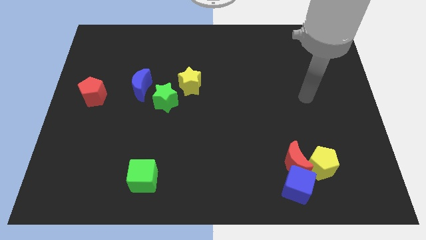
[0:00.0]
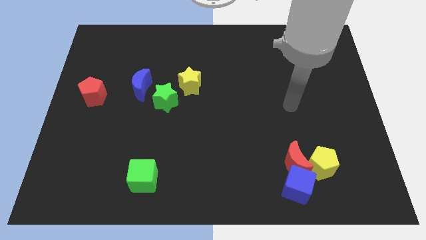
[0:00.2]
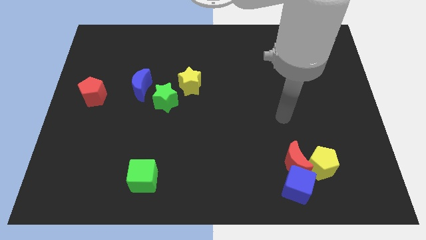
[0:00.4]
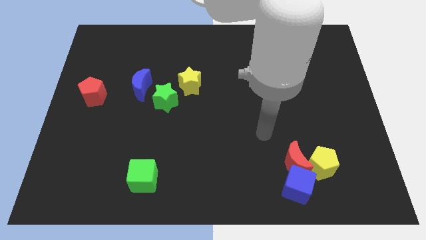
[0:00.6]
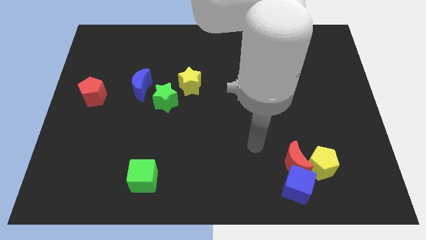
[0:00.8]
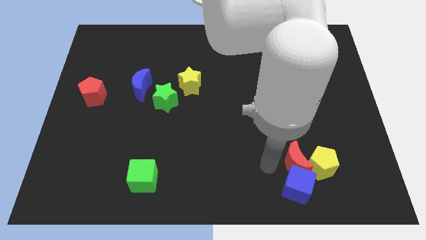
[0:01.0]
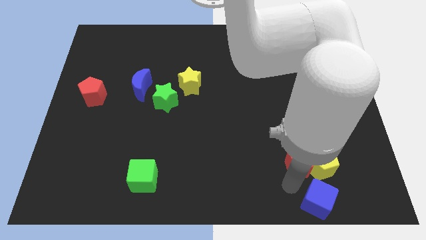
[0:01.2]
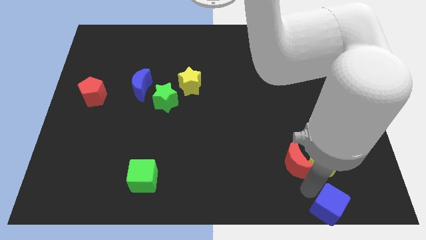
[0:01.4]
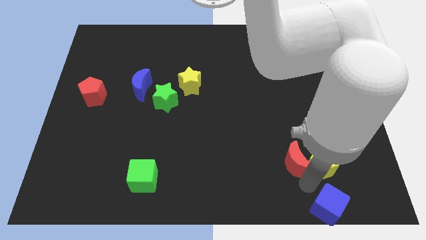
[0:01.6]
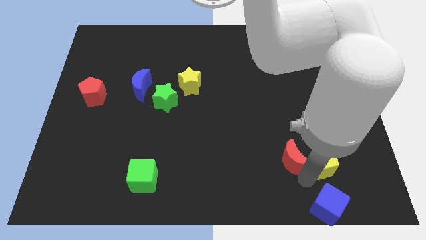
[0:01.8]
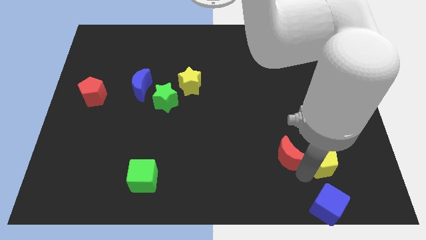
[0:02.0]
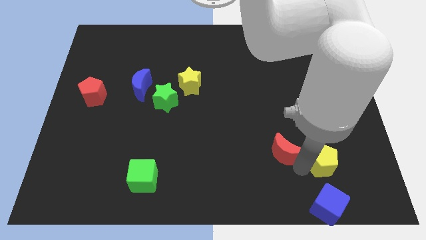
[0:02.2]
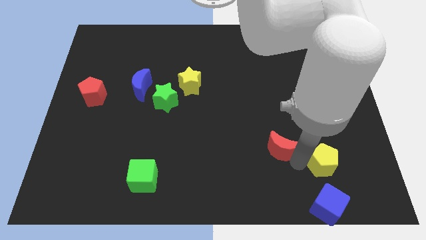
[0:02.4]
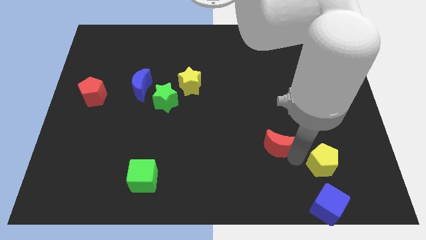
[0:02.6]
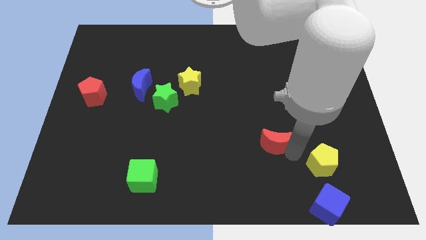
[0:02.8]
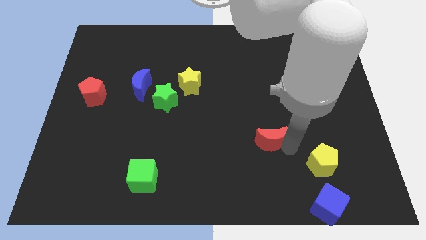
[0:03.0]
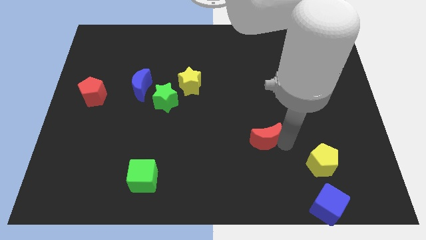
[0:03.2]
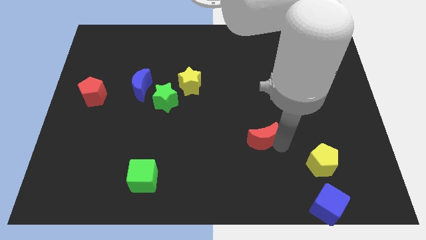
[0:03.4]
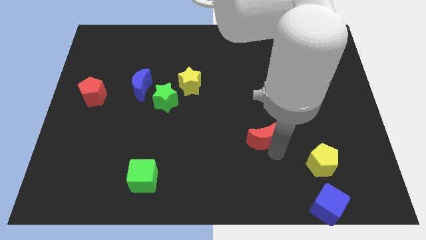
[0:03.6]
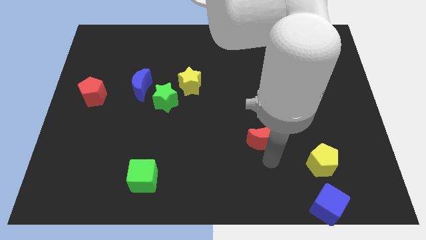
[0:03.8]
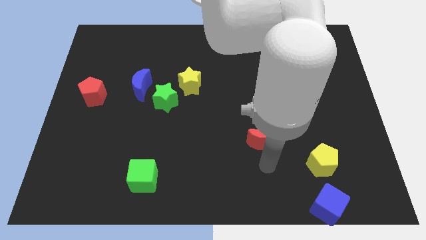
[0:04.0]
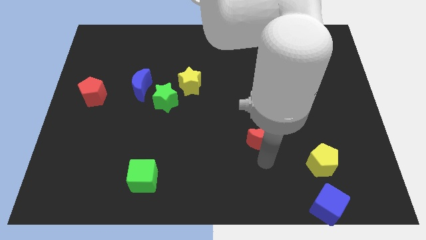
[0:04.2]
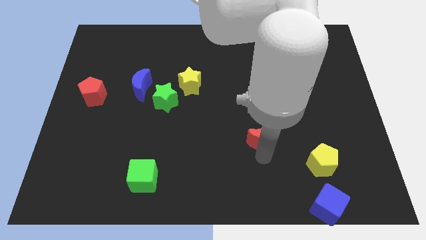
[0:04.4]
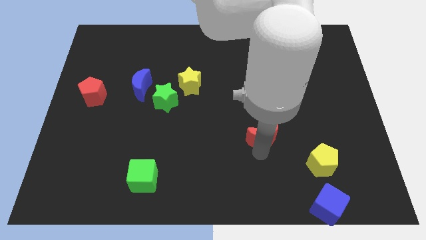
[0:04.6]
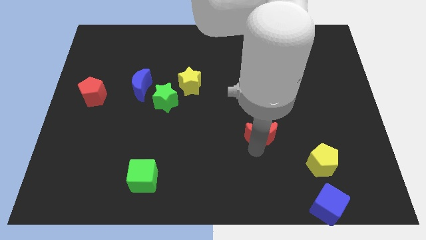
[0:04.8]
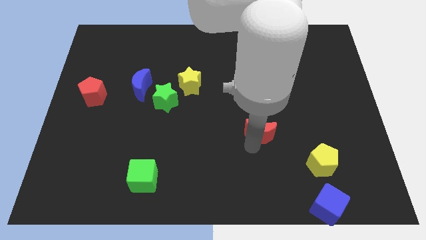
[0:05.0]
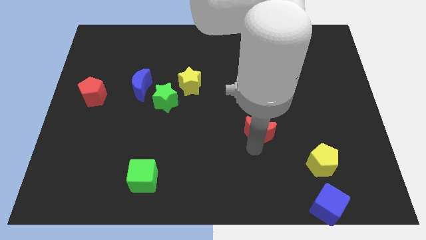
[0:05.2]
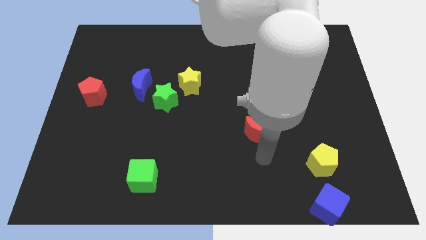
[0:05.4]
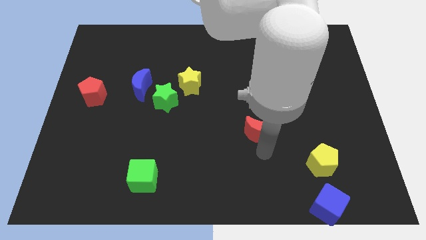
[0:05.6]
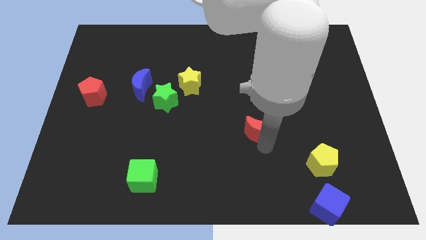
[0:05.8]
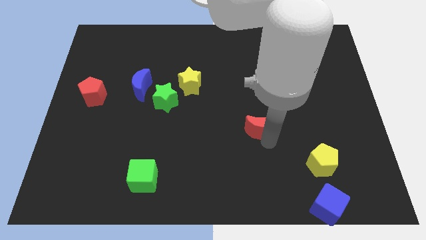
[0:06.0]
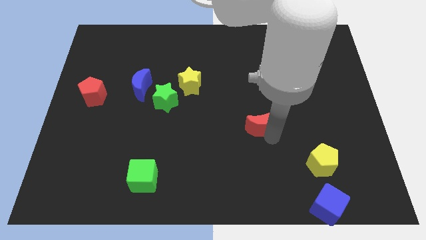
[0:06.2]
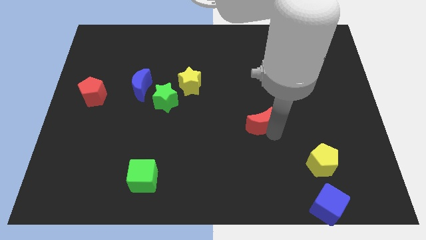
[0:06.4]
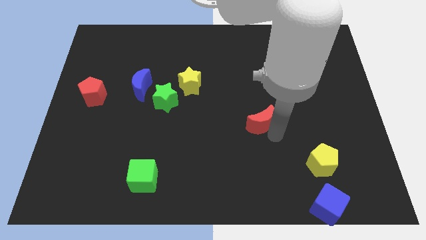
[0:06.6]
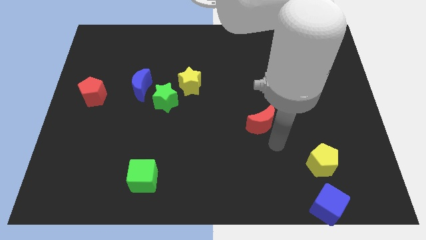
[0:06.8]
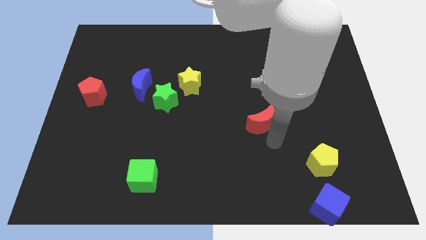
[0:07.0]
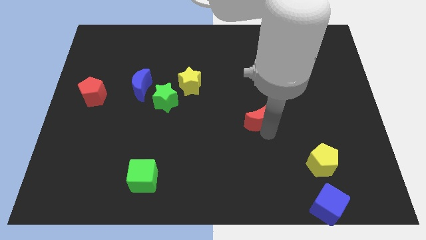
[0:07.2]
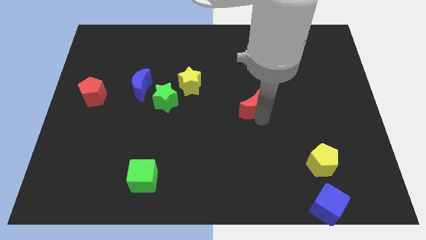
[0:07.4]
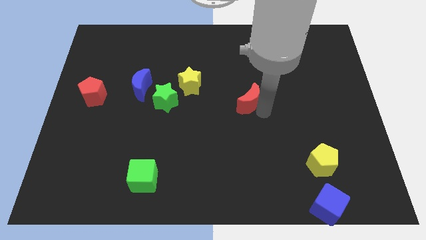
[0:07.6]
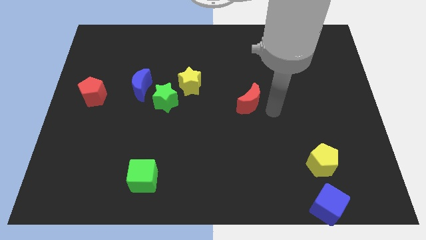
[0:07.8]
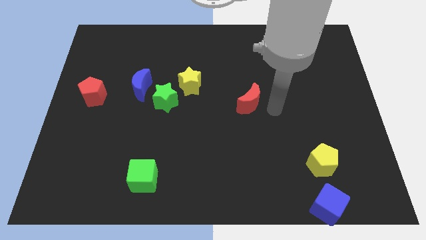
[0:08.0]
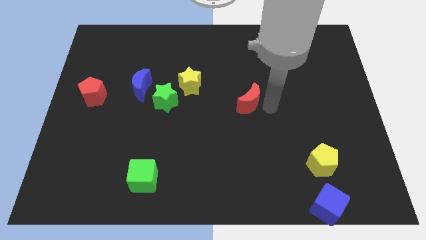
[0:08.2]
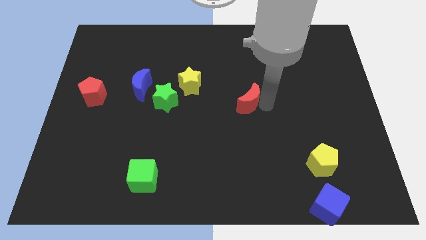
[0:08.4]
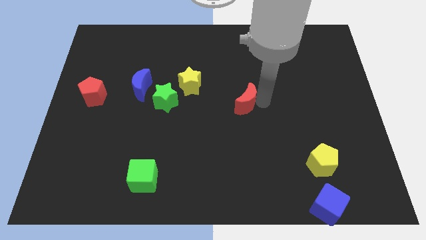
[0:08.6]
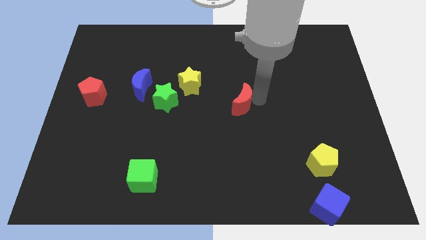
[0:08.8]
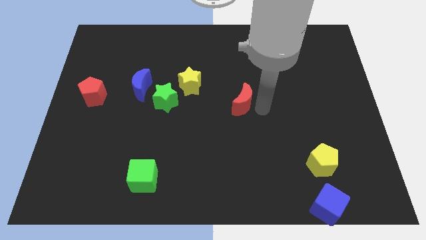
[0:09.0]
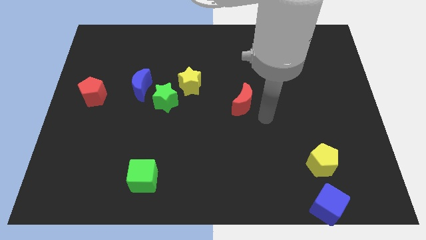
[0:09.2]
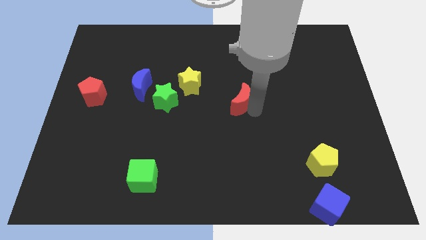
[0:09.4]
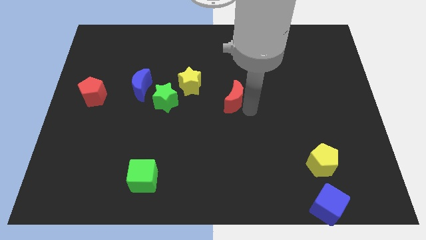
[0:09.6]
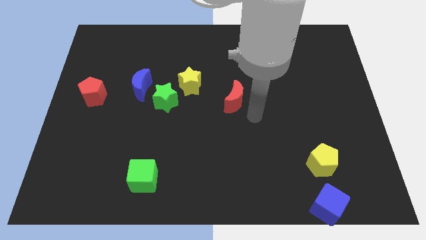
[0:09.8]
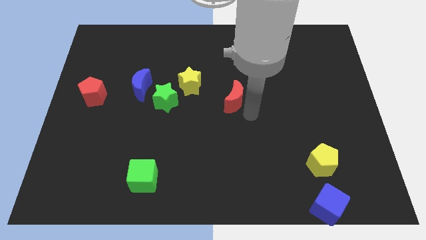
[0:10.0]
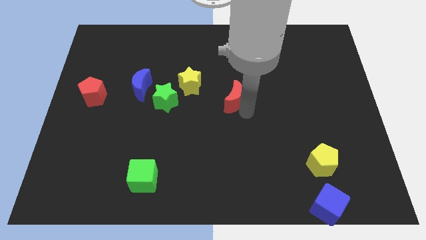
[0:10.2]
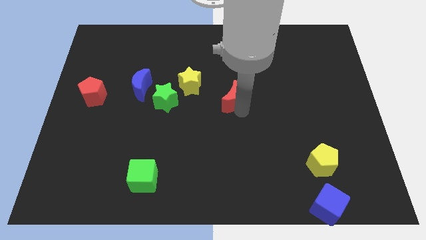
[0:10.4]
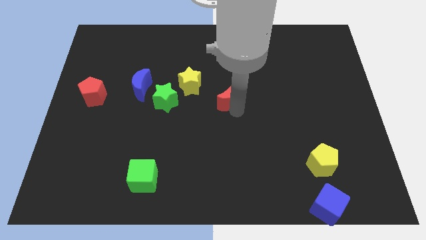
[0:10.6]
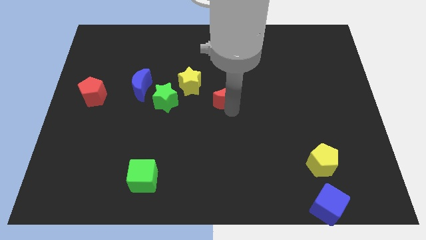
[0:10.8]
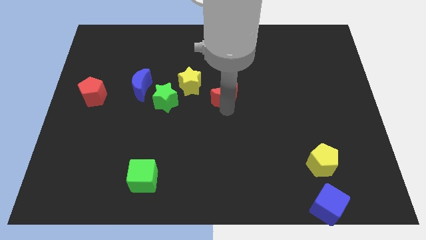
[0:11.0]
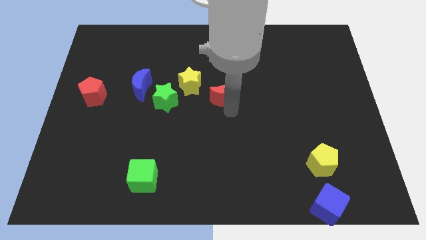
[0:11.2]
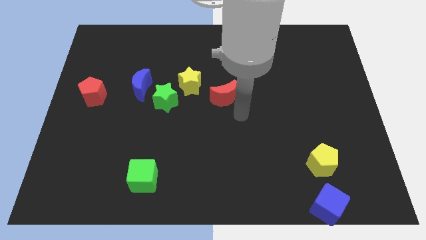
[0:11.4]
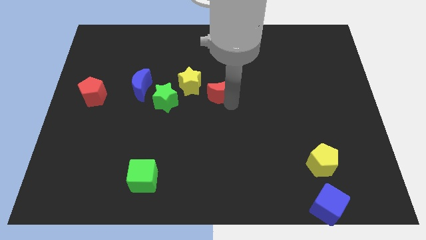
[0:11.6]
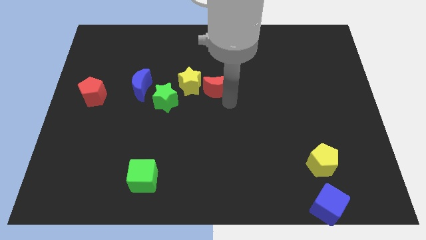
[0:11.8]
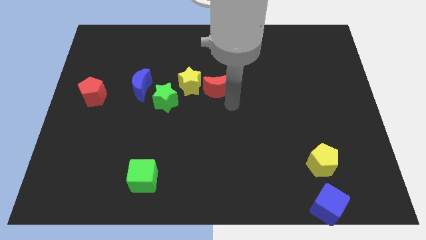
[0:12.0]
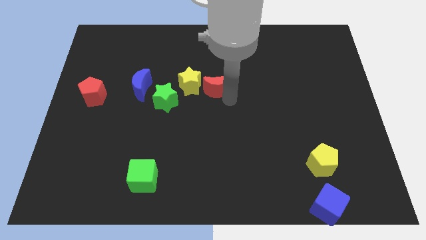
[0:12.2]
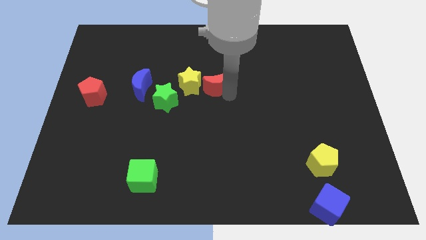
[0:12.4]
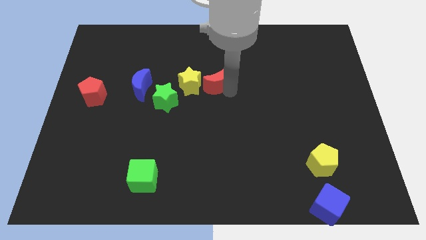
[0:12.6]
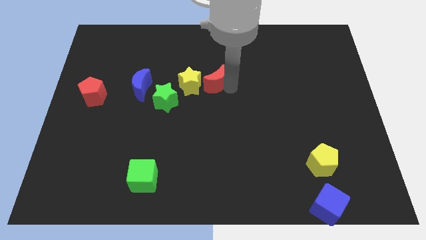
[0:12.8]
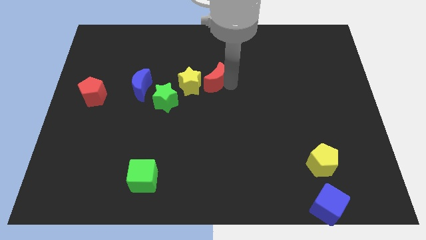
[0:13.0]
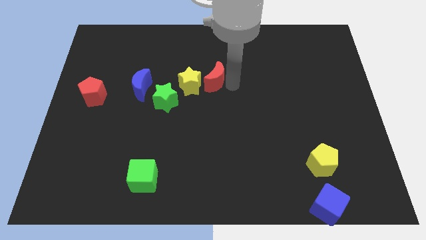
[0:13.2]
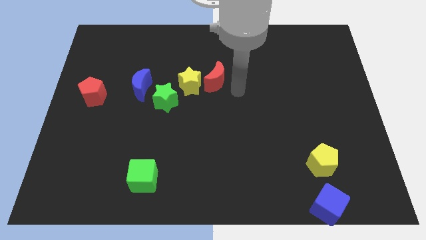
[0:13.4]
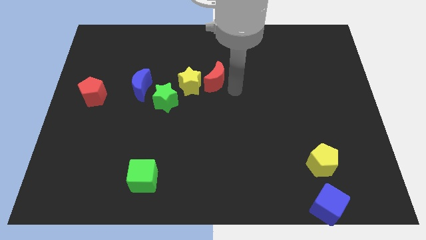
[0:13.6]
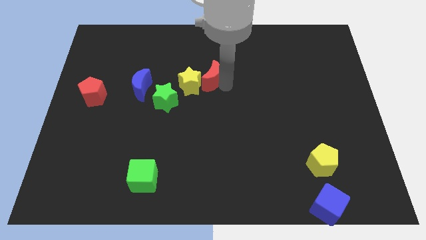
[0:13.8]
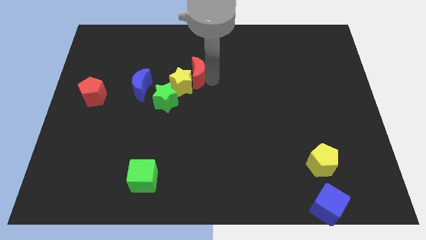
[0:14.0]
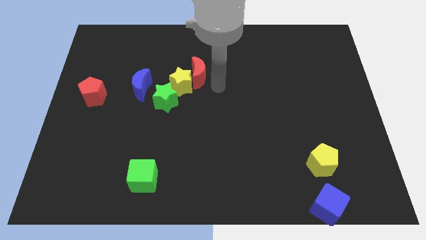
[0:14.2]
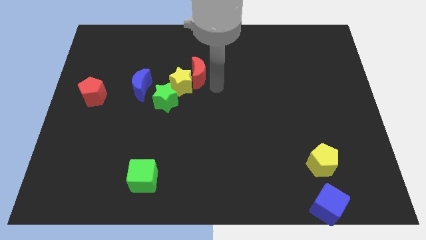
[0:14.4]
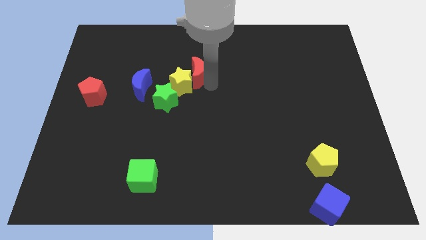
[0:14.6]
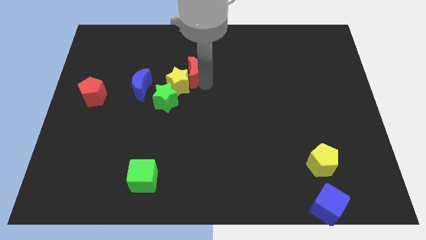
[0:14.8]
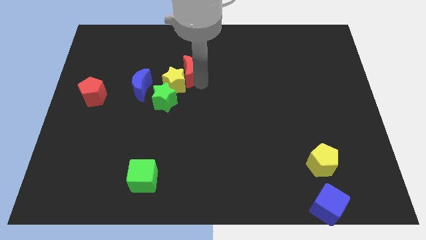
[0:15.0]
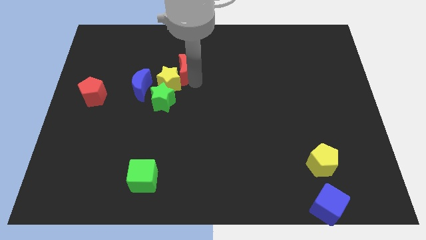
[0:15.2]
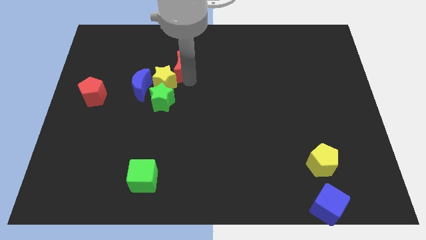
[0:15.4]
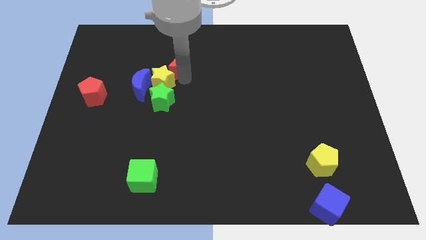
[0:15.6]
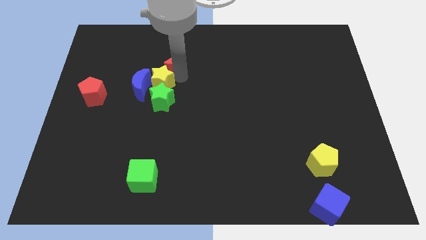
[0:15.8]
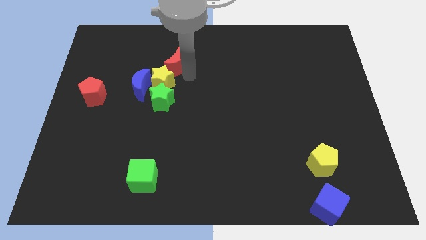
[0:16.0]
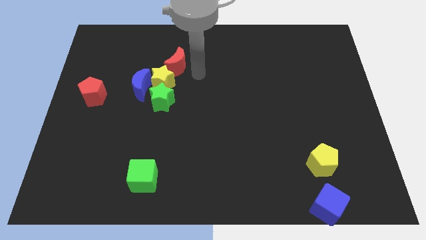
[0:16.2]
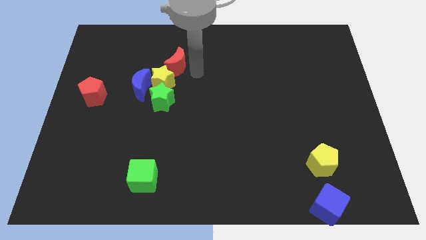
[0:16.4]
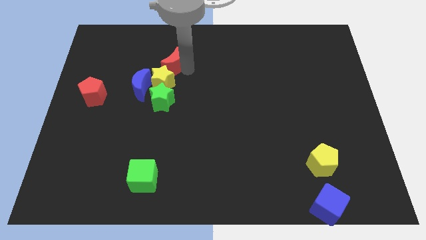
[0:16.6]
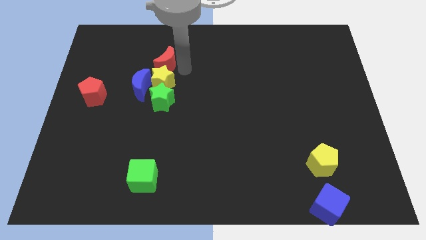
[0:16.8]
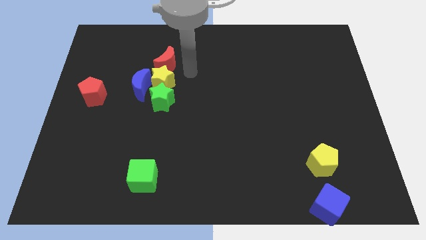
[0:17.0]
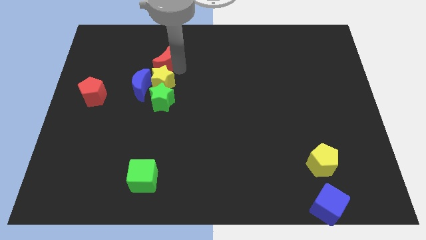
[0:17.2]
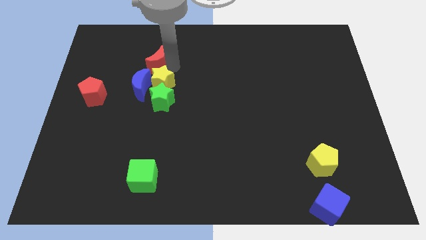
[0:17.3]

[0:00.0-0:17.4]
move the red moon to the top side of the blue moon
